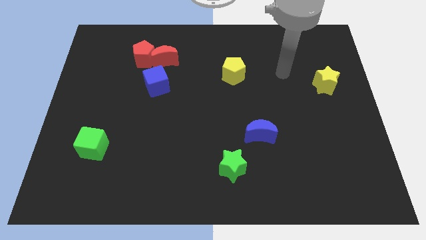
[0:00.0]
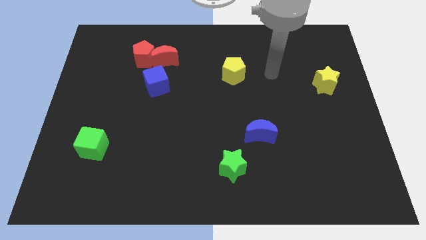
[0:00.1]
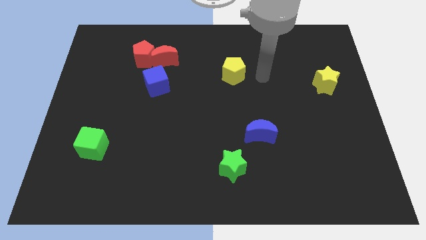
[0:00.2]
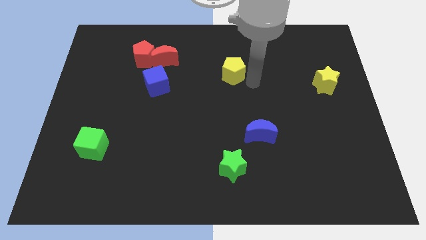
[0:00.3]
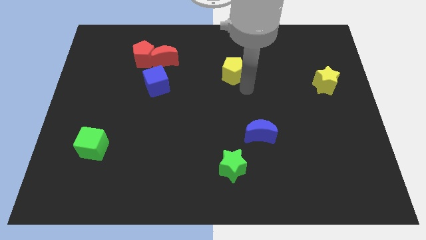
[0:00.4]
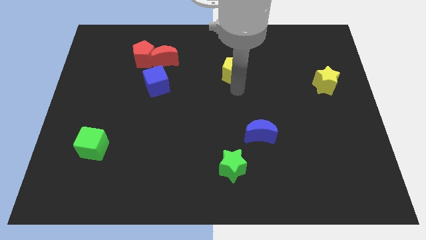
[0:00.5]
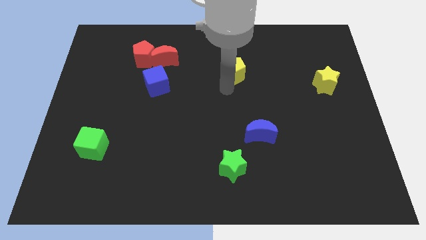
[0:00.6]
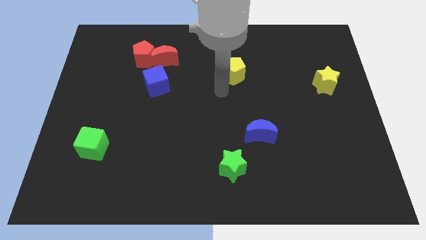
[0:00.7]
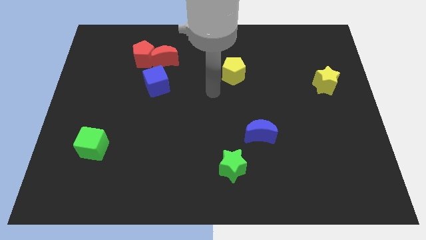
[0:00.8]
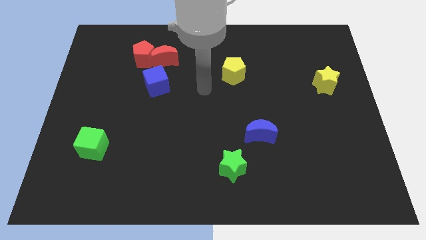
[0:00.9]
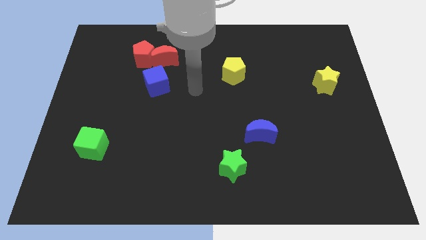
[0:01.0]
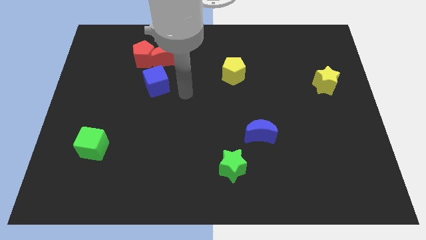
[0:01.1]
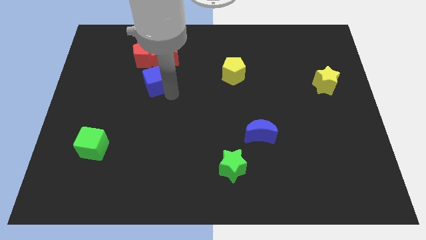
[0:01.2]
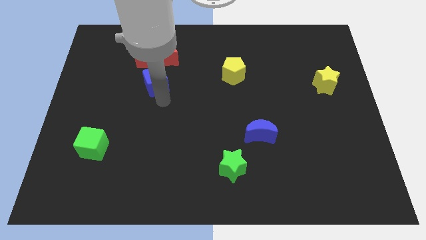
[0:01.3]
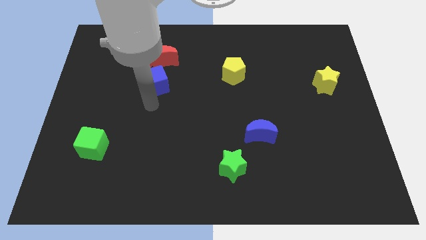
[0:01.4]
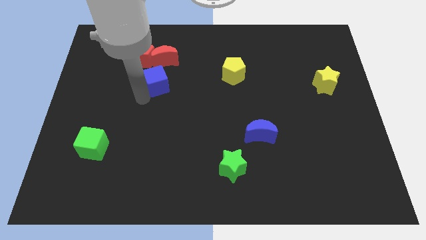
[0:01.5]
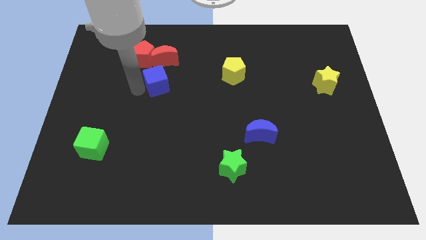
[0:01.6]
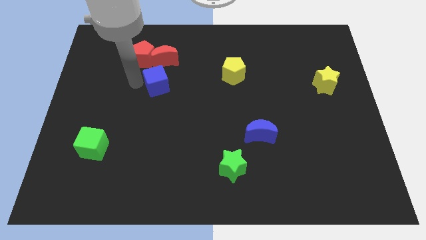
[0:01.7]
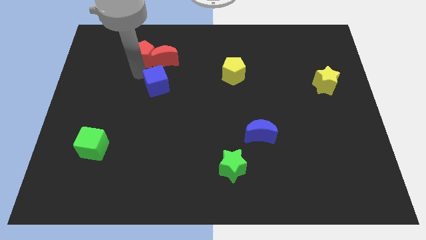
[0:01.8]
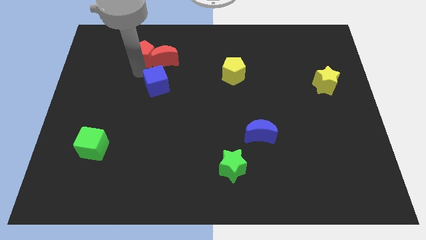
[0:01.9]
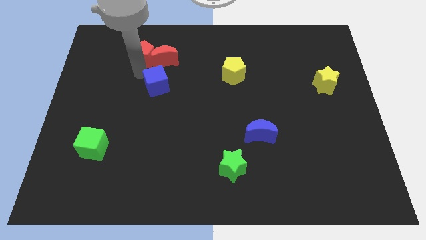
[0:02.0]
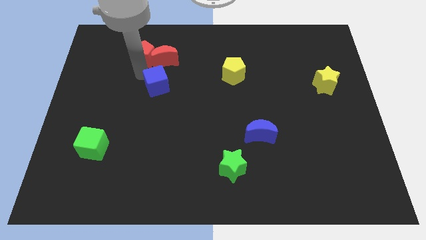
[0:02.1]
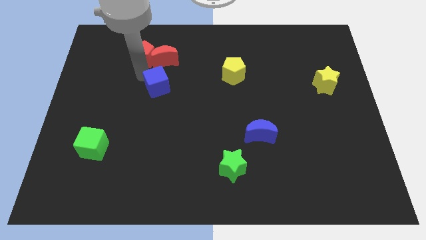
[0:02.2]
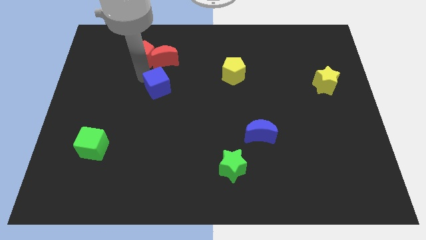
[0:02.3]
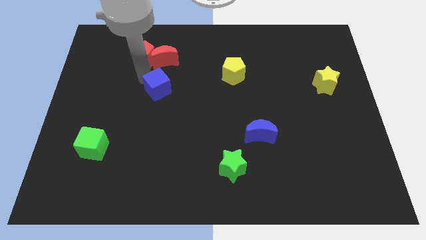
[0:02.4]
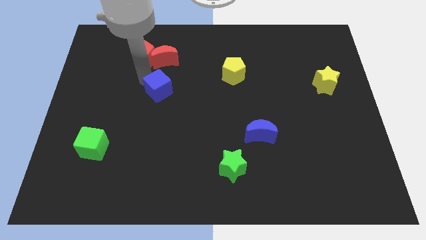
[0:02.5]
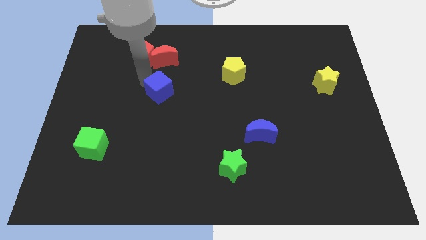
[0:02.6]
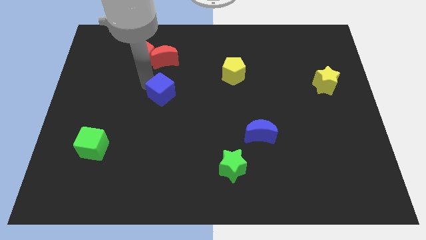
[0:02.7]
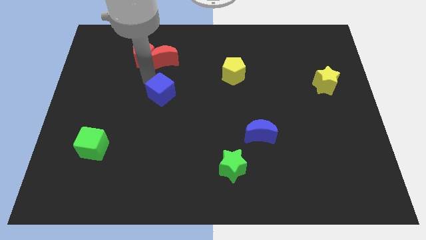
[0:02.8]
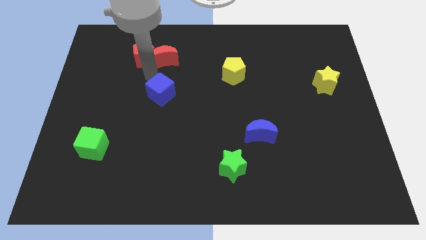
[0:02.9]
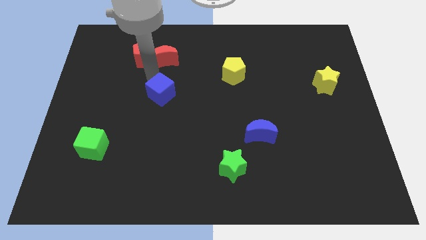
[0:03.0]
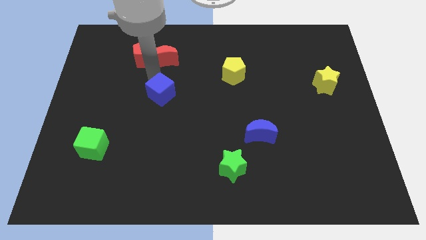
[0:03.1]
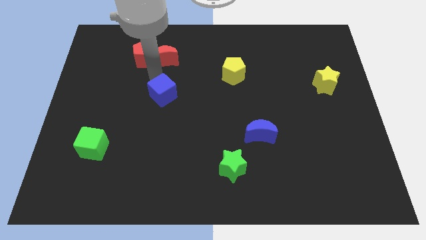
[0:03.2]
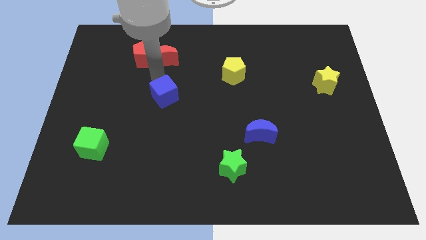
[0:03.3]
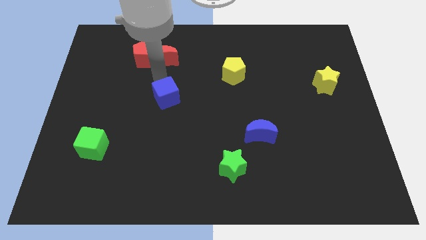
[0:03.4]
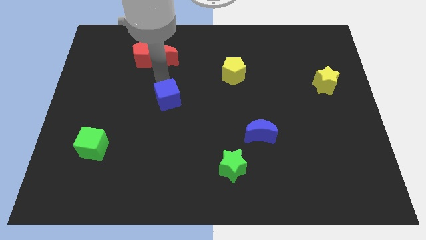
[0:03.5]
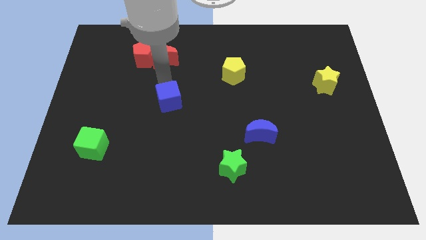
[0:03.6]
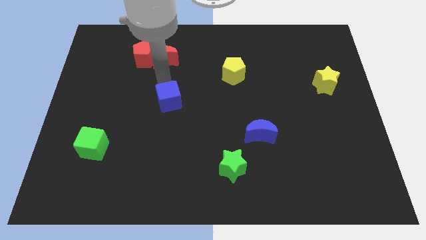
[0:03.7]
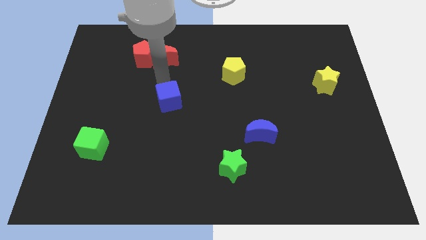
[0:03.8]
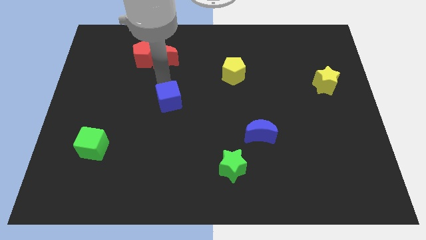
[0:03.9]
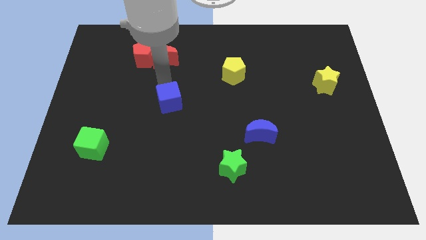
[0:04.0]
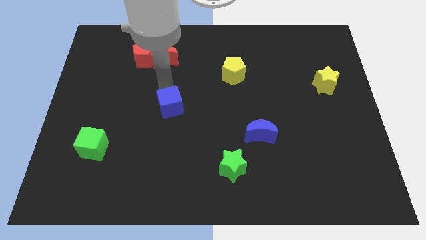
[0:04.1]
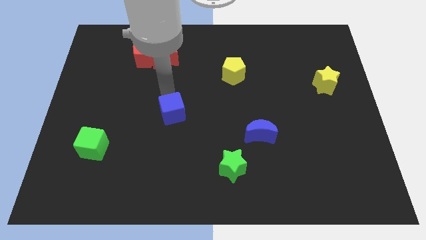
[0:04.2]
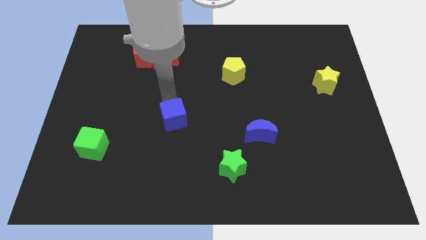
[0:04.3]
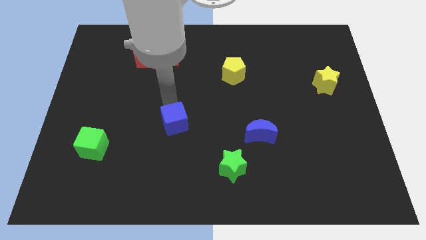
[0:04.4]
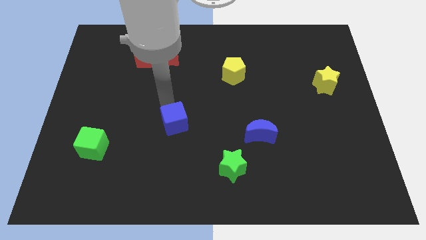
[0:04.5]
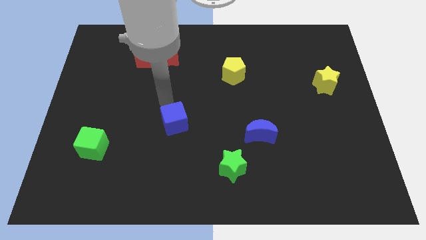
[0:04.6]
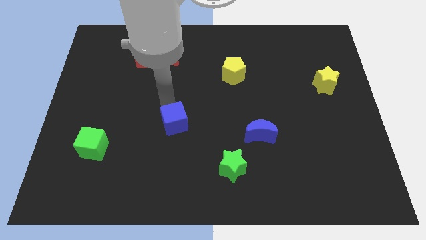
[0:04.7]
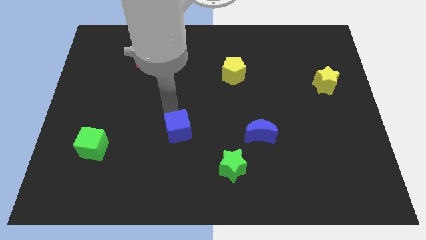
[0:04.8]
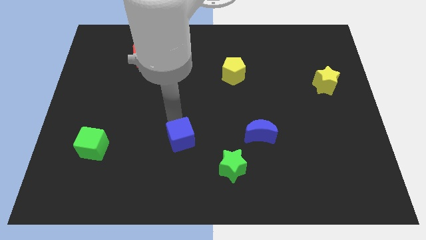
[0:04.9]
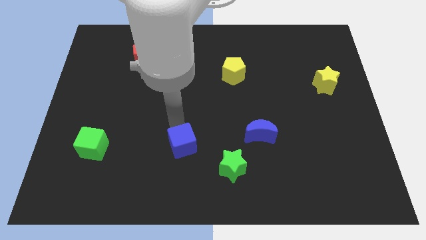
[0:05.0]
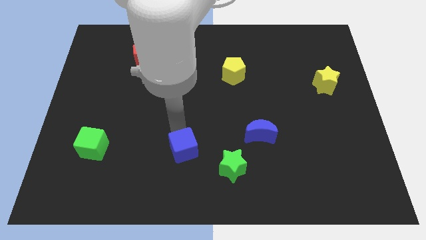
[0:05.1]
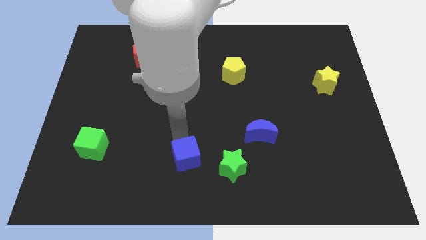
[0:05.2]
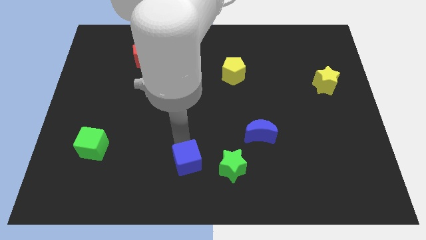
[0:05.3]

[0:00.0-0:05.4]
put the blue cube to the bottom side

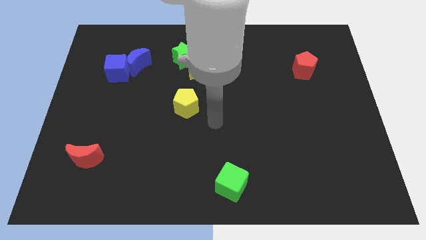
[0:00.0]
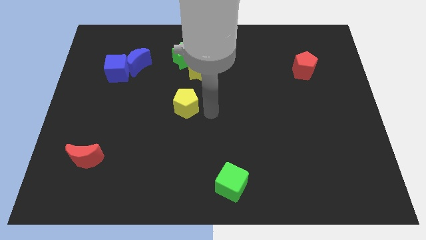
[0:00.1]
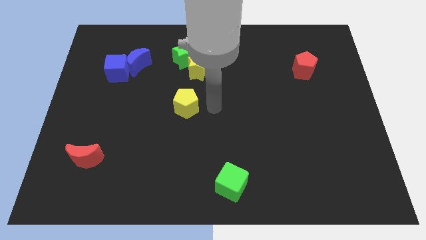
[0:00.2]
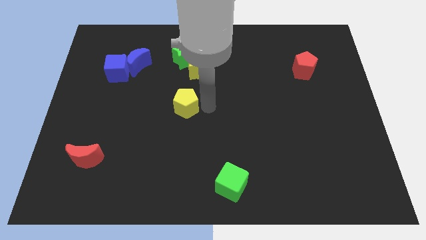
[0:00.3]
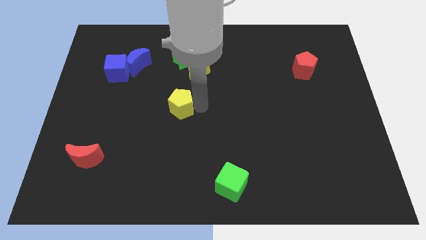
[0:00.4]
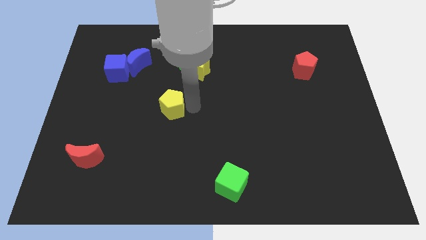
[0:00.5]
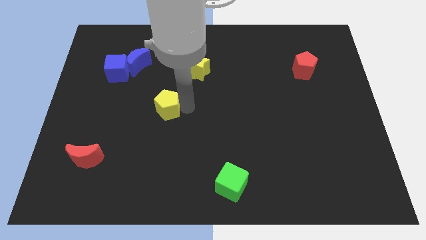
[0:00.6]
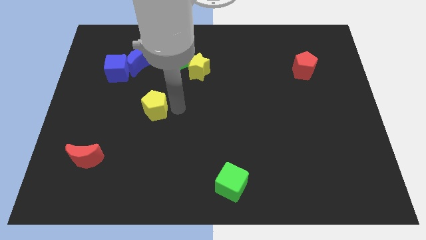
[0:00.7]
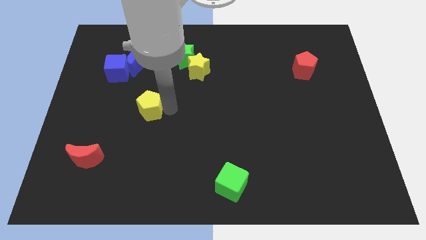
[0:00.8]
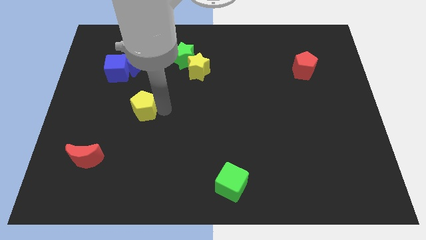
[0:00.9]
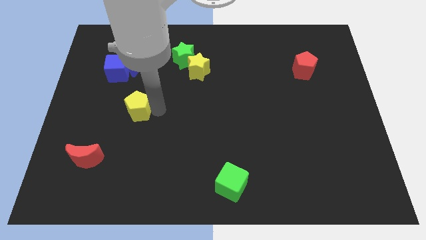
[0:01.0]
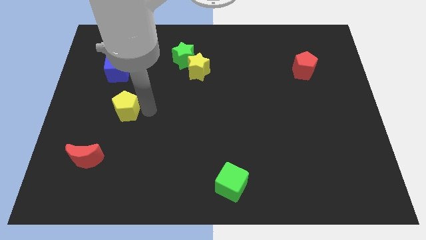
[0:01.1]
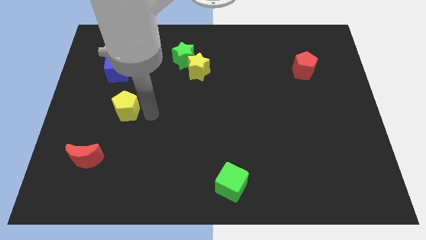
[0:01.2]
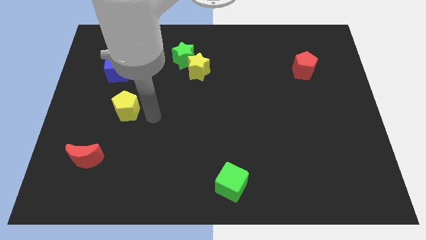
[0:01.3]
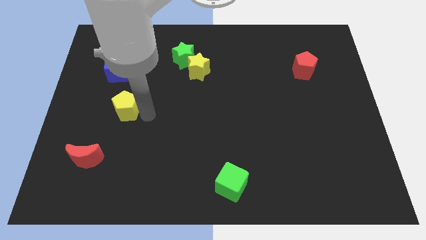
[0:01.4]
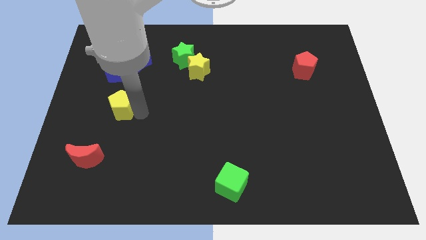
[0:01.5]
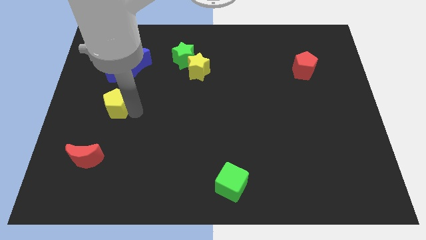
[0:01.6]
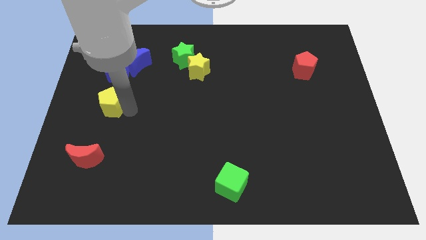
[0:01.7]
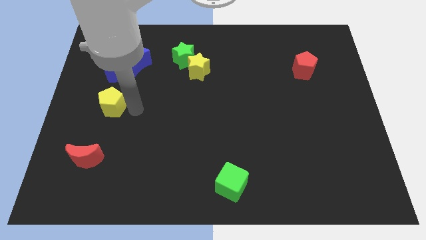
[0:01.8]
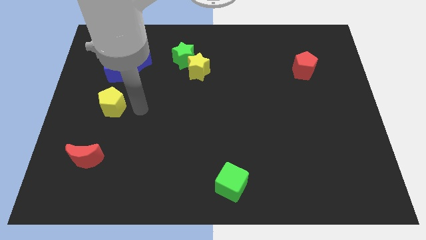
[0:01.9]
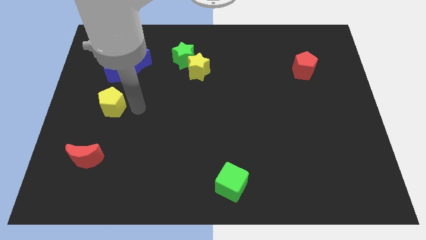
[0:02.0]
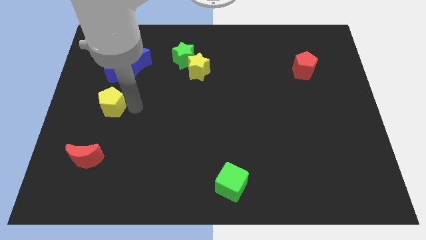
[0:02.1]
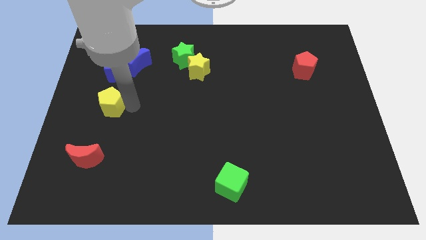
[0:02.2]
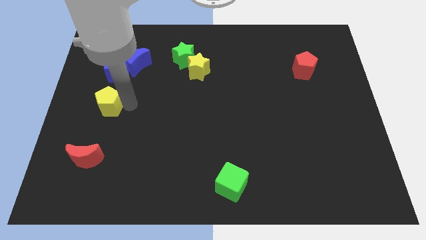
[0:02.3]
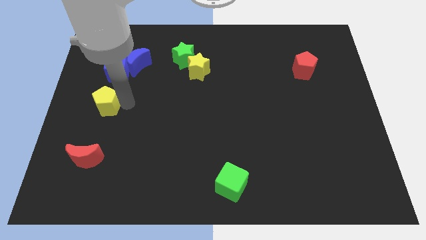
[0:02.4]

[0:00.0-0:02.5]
push the yellow pentagon to the left side
